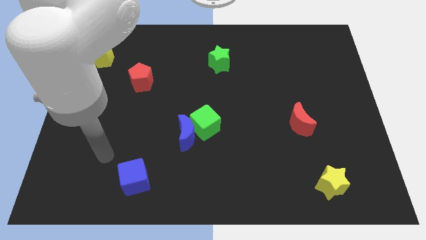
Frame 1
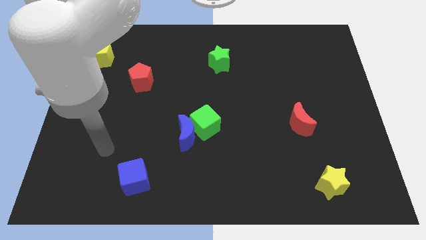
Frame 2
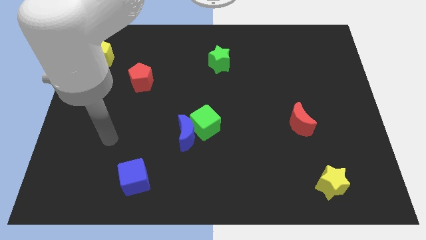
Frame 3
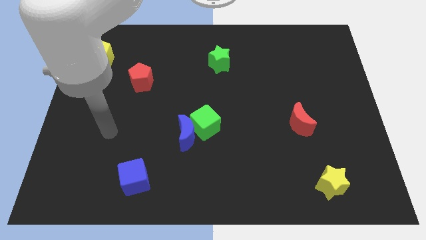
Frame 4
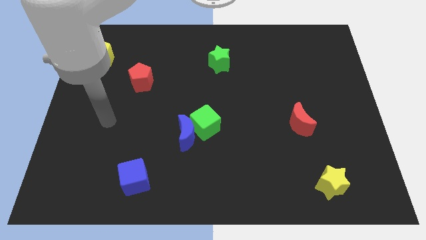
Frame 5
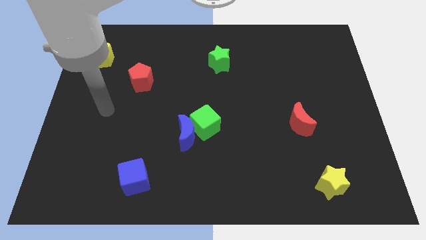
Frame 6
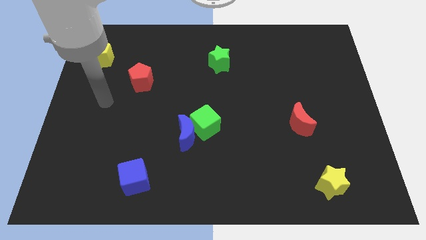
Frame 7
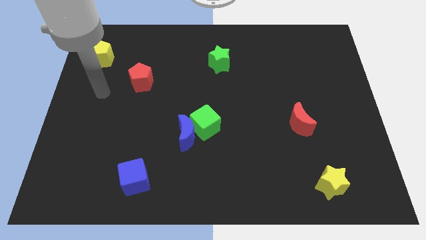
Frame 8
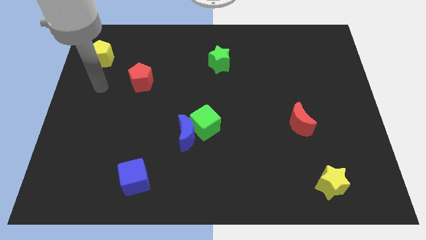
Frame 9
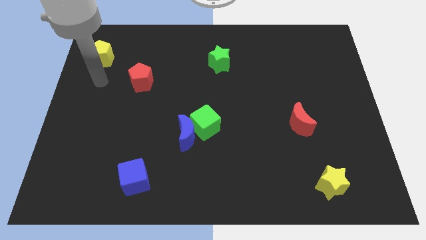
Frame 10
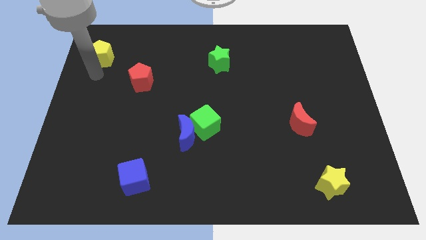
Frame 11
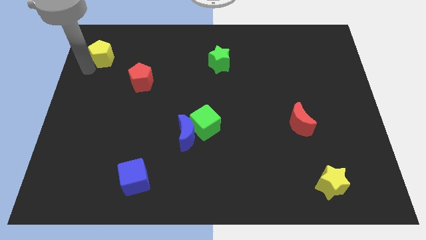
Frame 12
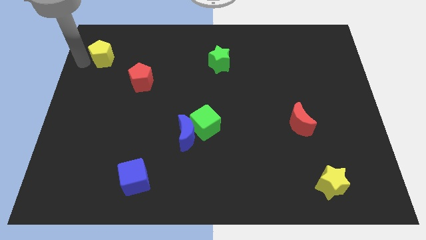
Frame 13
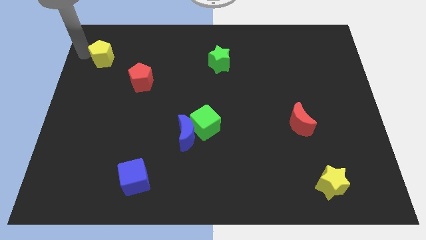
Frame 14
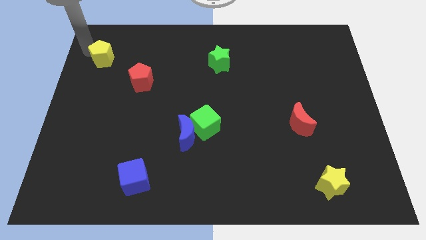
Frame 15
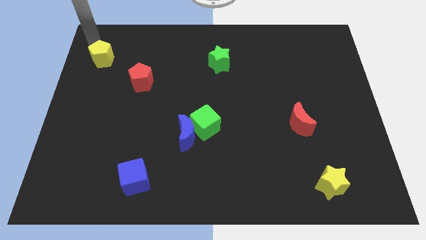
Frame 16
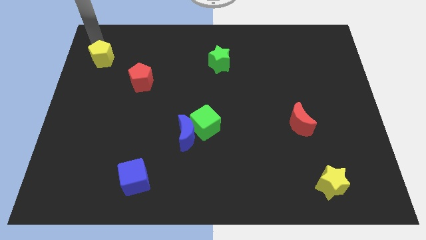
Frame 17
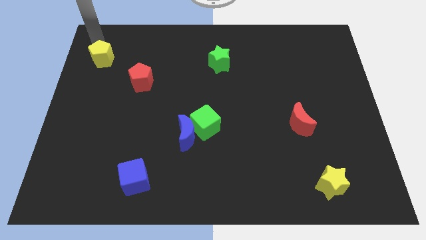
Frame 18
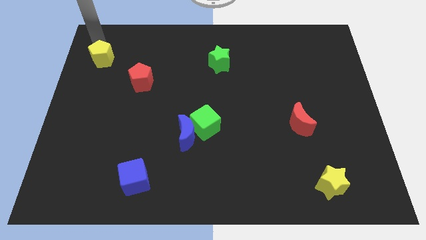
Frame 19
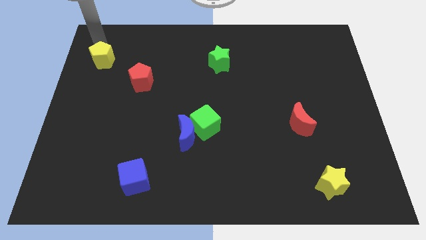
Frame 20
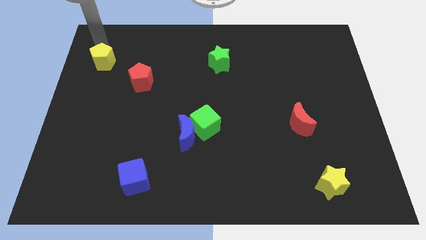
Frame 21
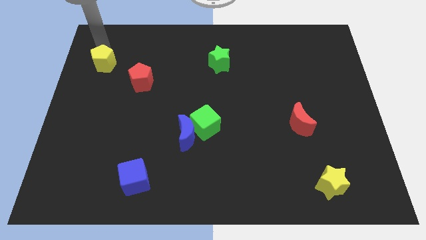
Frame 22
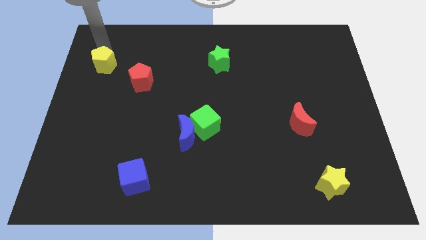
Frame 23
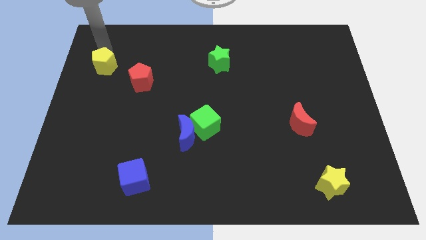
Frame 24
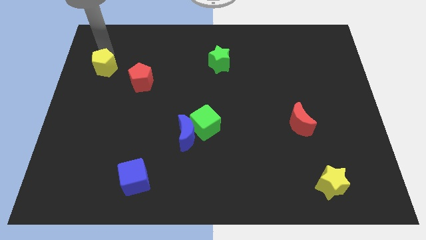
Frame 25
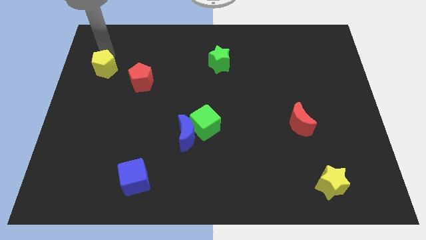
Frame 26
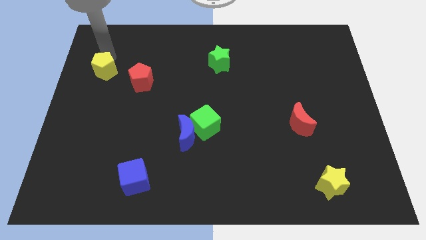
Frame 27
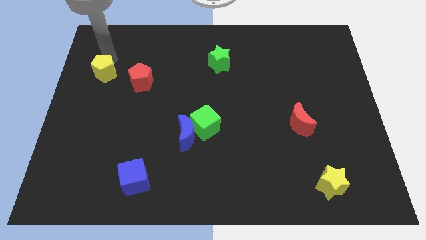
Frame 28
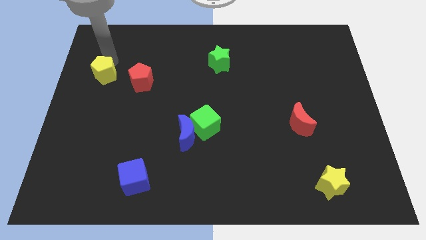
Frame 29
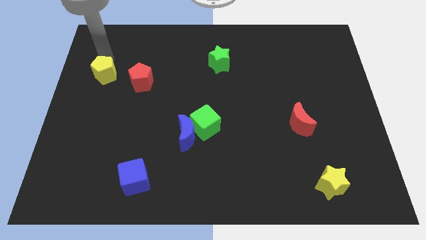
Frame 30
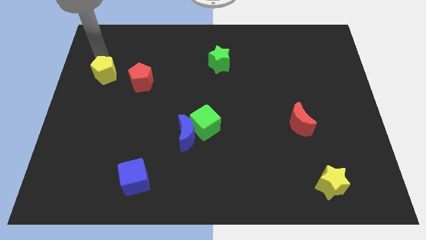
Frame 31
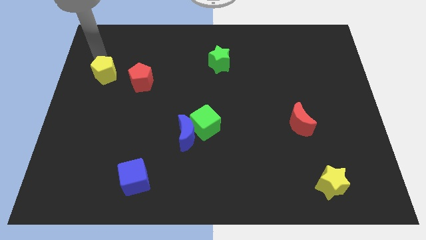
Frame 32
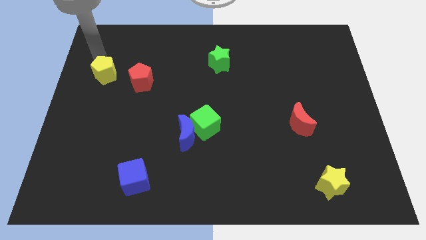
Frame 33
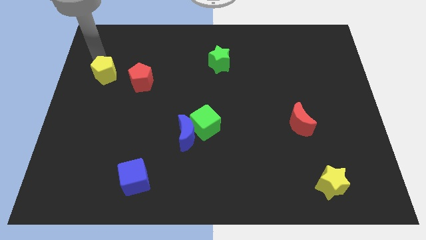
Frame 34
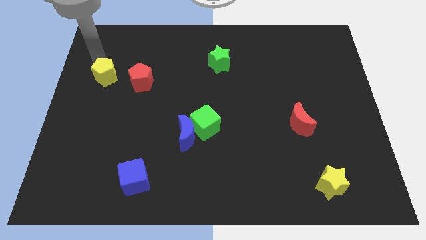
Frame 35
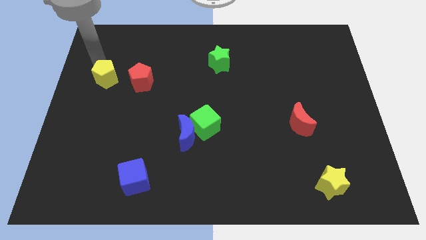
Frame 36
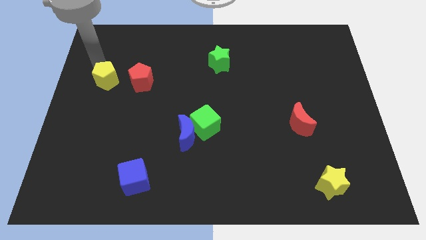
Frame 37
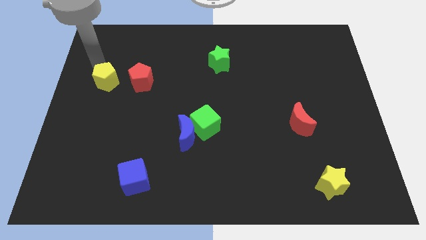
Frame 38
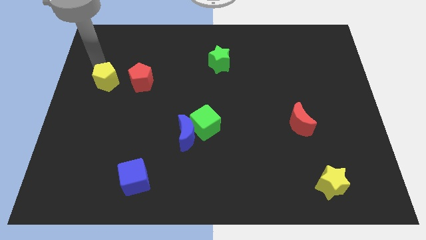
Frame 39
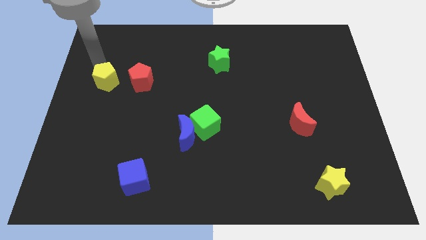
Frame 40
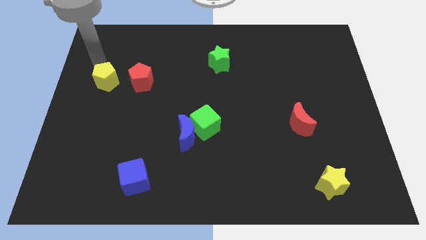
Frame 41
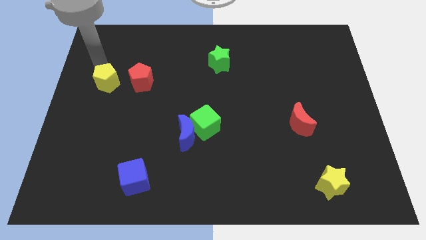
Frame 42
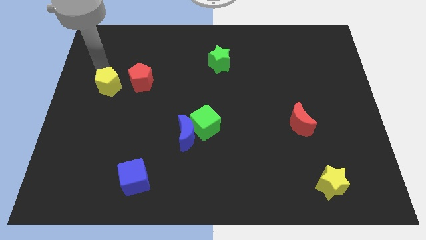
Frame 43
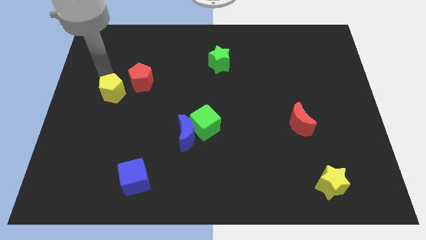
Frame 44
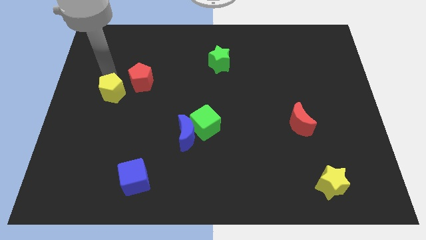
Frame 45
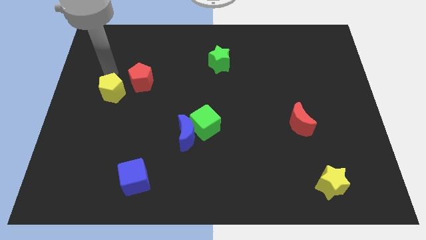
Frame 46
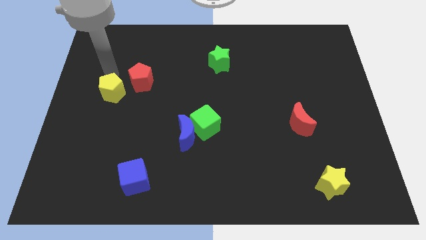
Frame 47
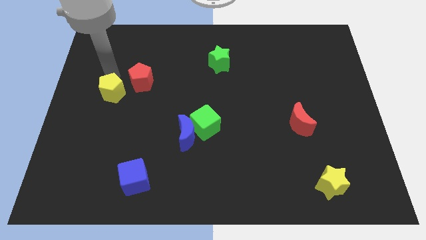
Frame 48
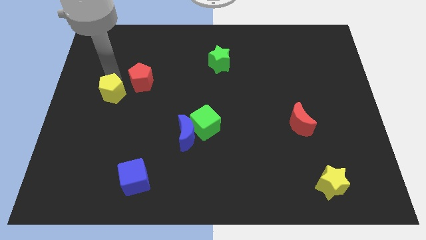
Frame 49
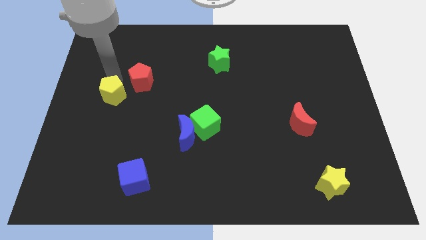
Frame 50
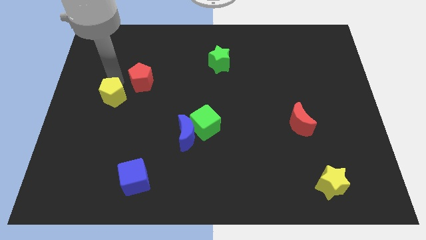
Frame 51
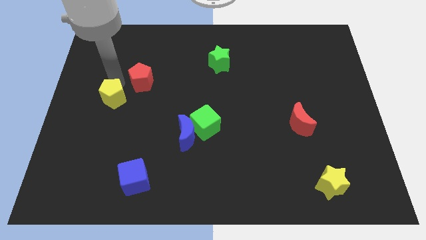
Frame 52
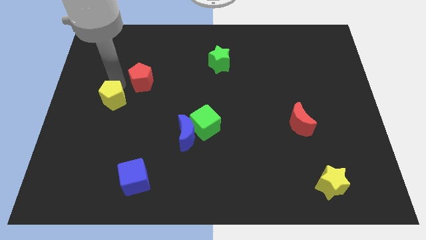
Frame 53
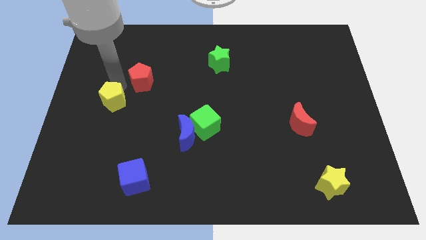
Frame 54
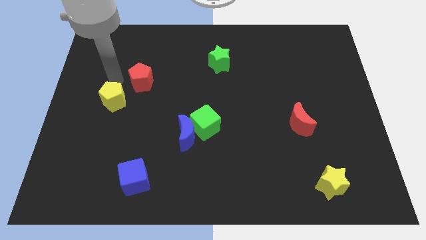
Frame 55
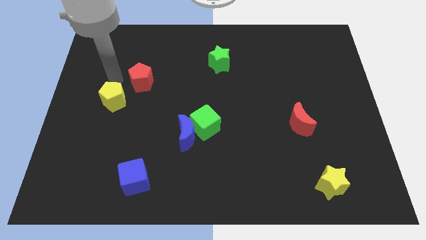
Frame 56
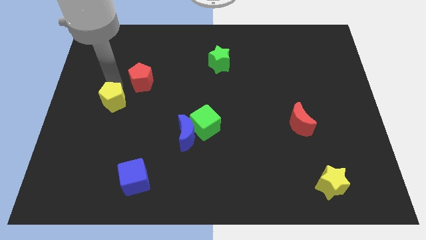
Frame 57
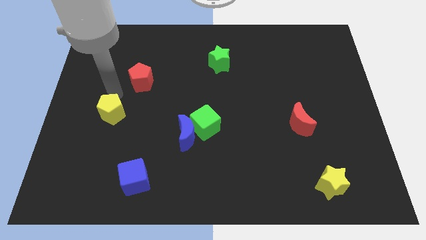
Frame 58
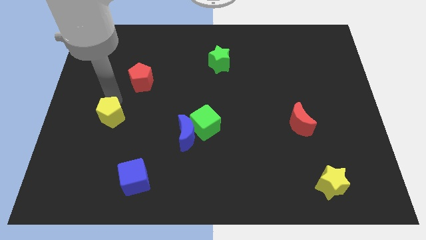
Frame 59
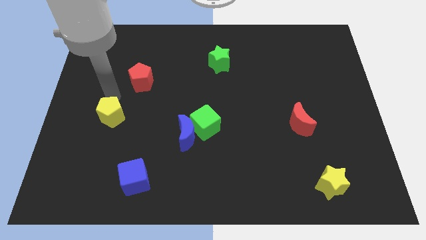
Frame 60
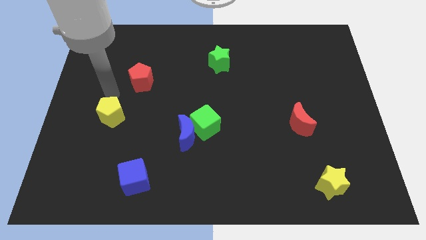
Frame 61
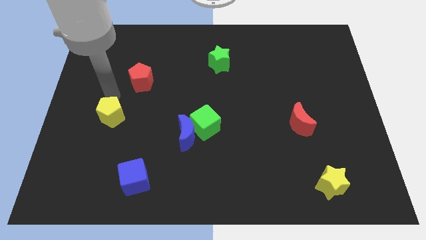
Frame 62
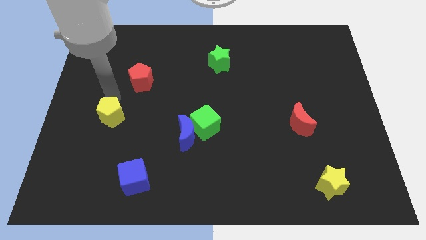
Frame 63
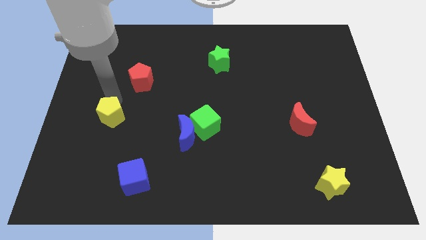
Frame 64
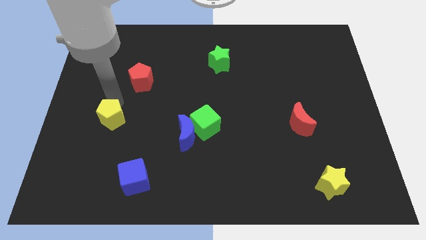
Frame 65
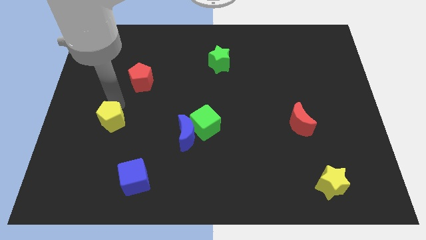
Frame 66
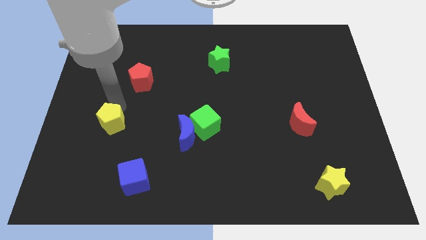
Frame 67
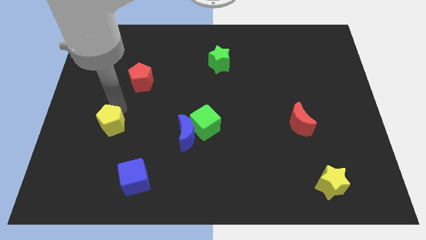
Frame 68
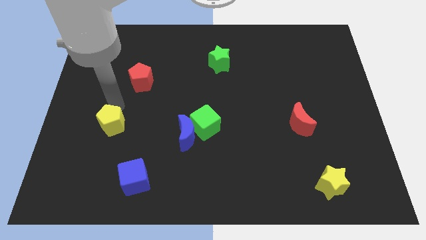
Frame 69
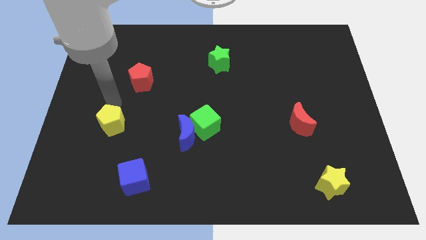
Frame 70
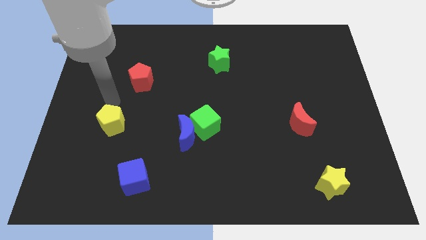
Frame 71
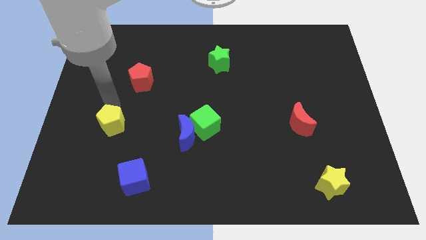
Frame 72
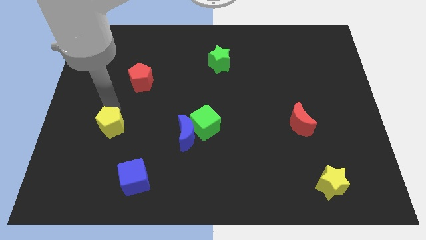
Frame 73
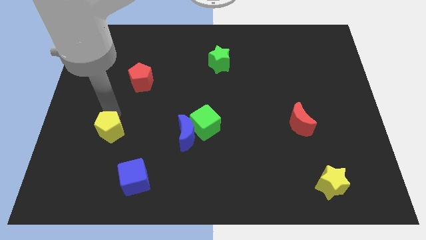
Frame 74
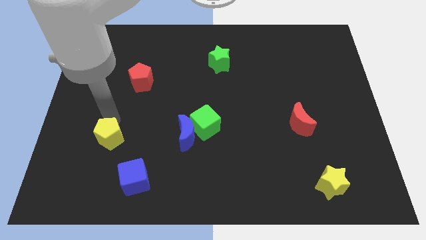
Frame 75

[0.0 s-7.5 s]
push the yellow pentagon to the top left of the blue cube

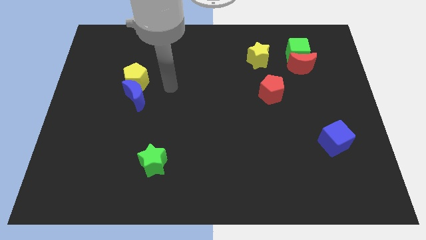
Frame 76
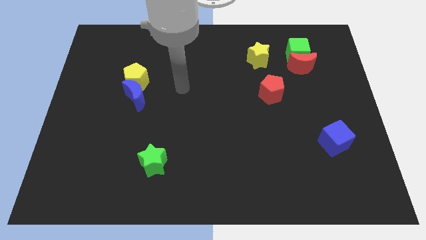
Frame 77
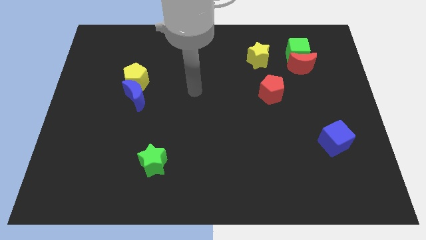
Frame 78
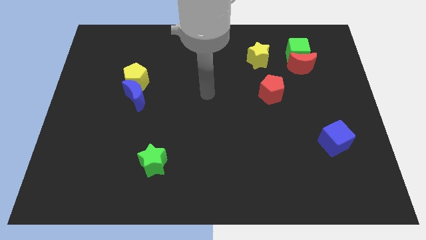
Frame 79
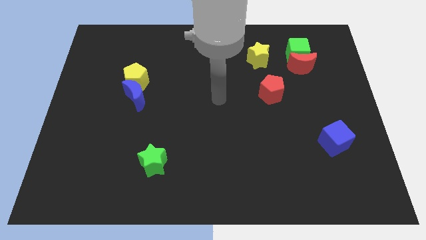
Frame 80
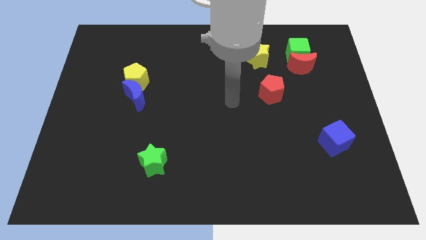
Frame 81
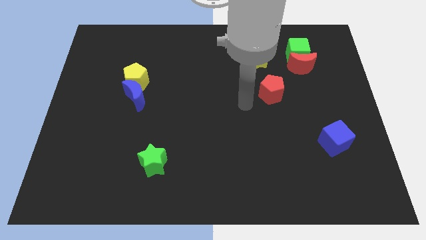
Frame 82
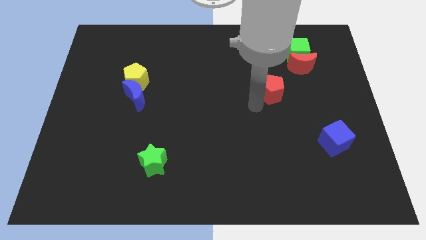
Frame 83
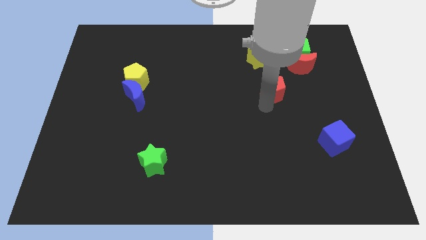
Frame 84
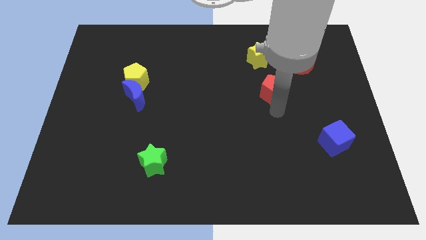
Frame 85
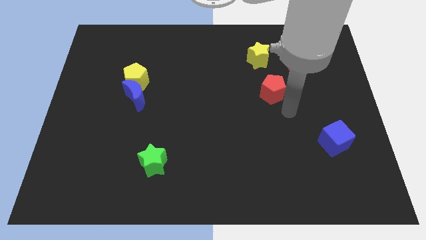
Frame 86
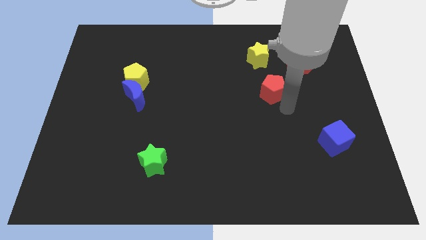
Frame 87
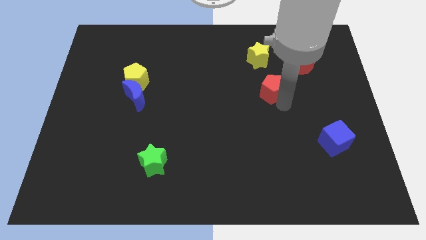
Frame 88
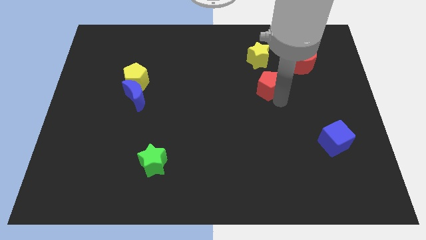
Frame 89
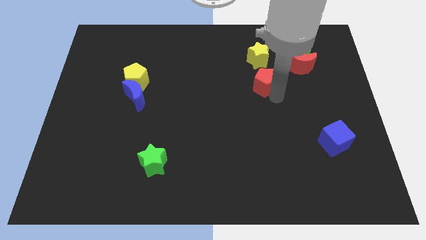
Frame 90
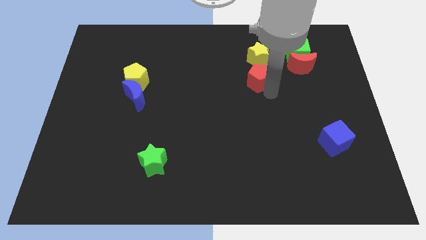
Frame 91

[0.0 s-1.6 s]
put the red pentagon left of the red moon
